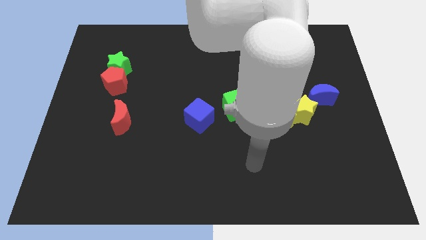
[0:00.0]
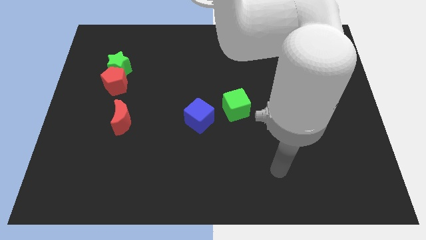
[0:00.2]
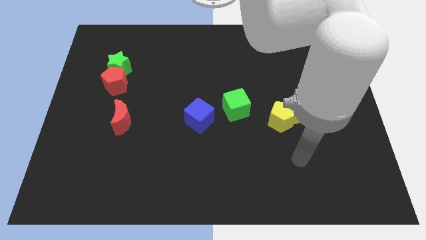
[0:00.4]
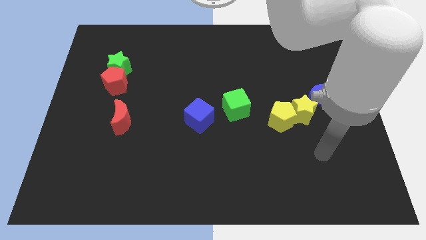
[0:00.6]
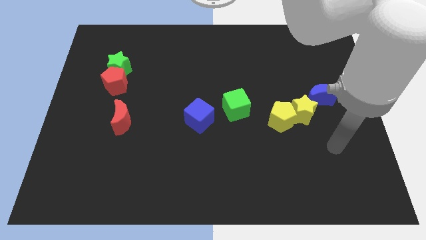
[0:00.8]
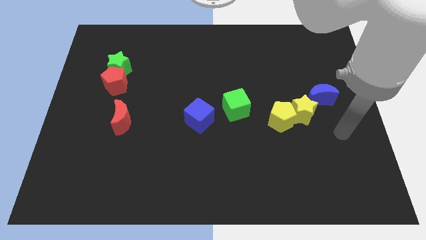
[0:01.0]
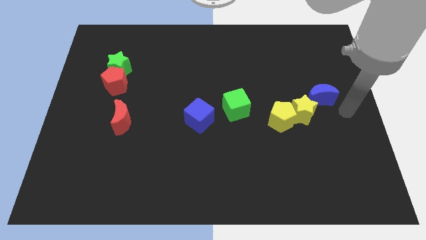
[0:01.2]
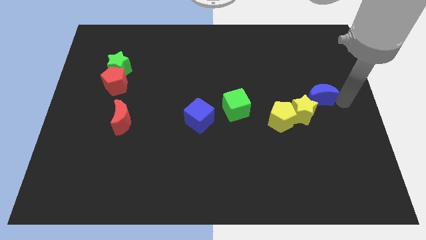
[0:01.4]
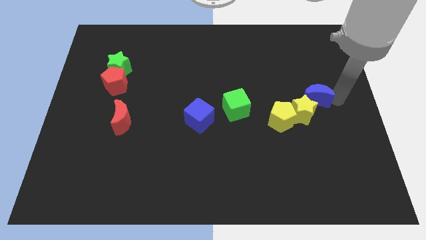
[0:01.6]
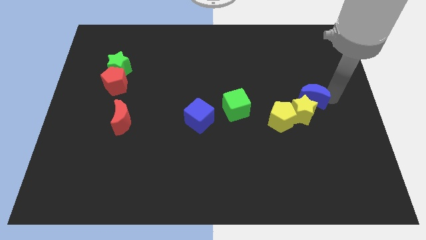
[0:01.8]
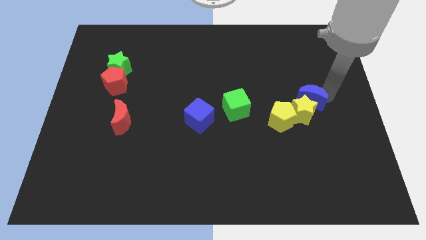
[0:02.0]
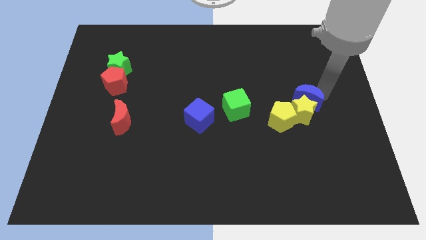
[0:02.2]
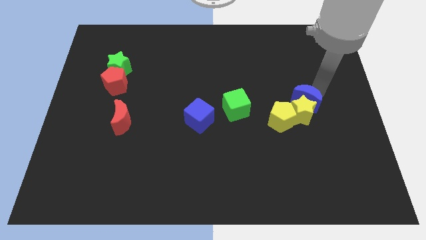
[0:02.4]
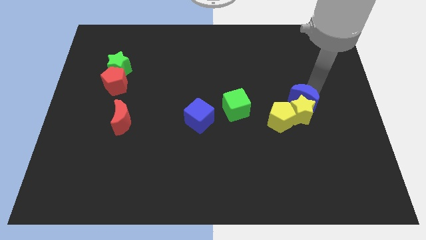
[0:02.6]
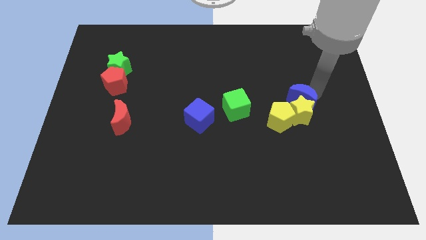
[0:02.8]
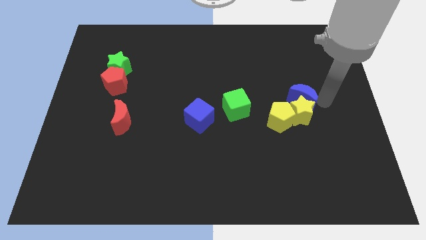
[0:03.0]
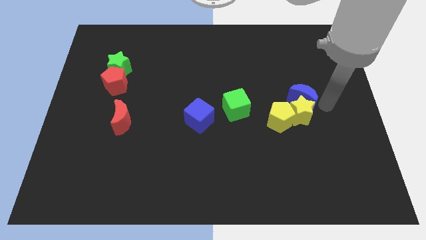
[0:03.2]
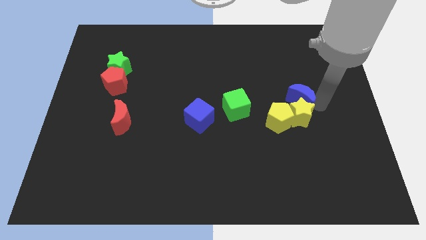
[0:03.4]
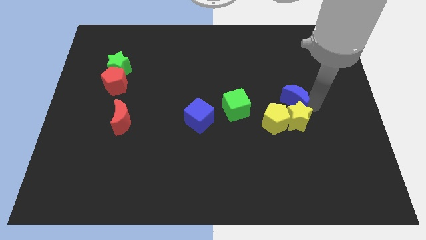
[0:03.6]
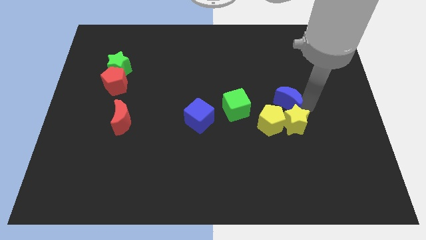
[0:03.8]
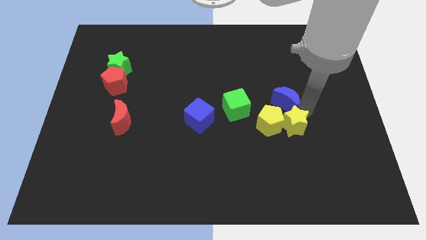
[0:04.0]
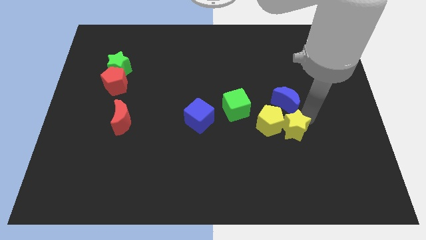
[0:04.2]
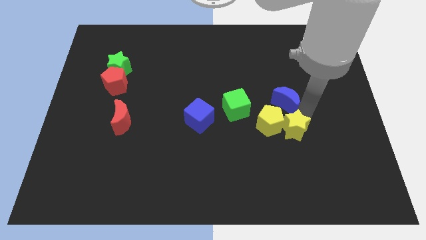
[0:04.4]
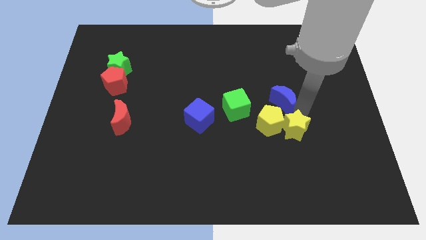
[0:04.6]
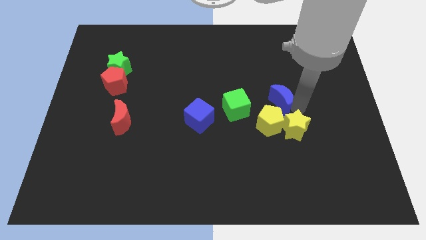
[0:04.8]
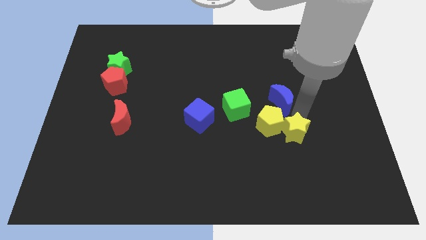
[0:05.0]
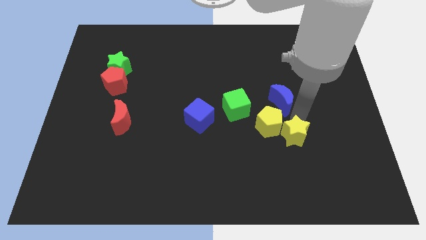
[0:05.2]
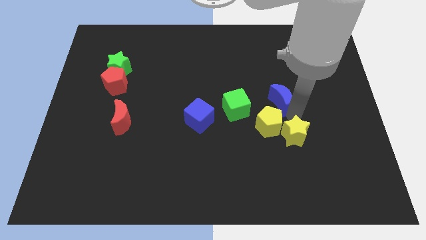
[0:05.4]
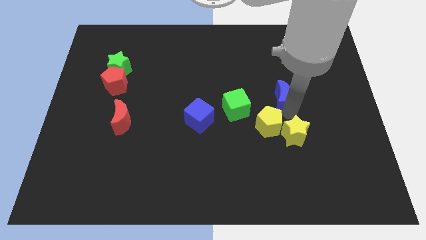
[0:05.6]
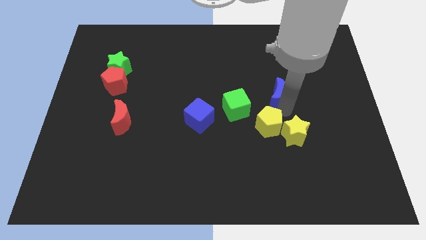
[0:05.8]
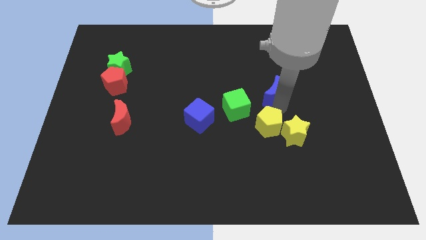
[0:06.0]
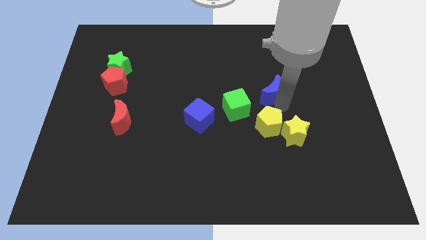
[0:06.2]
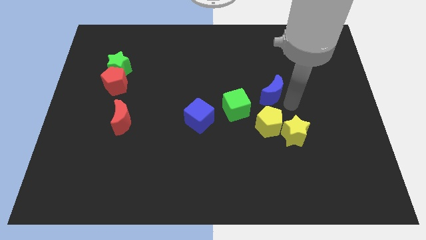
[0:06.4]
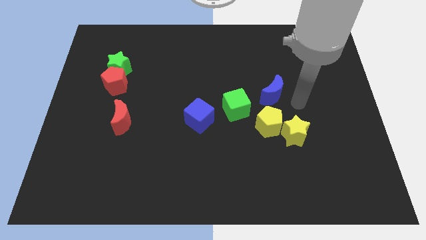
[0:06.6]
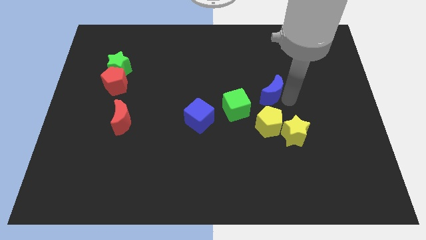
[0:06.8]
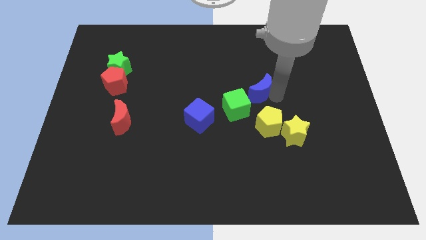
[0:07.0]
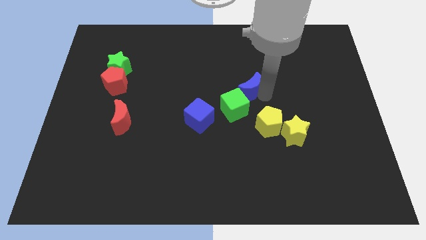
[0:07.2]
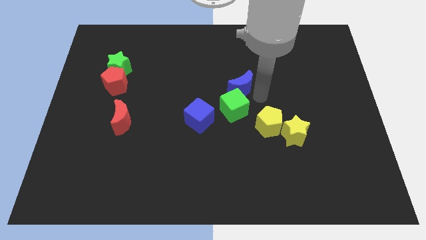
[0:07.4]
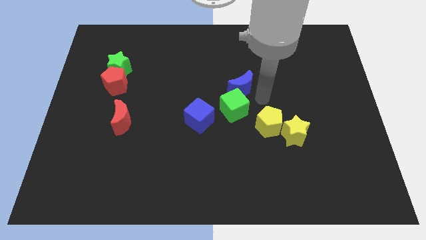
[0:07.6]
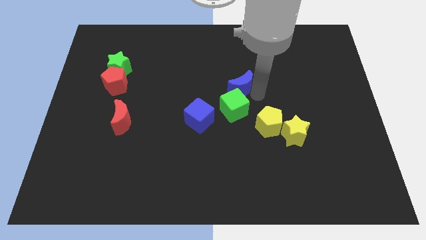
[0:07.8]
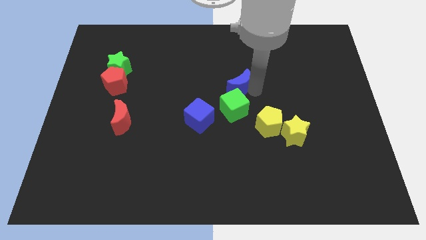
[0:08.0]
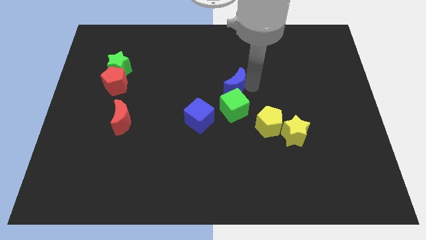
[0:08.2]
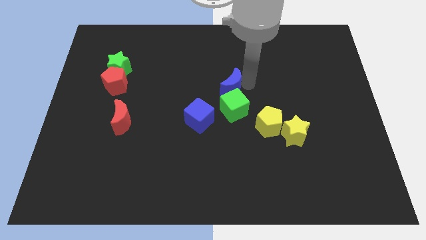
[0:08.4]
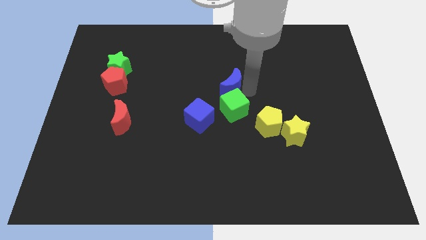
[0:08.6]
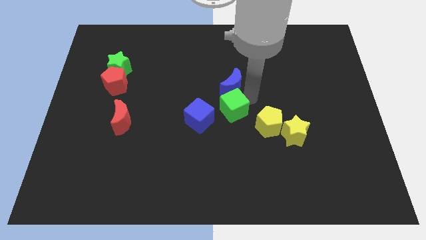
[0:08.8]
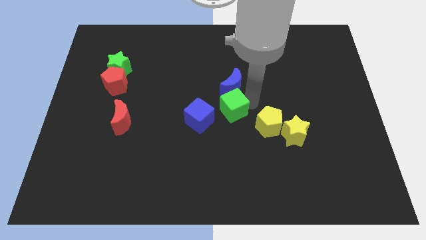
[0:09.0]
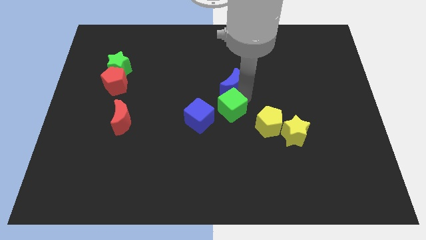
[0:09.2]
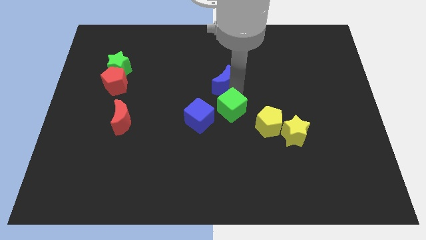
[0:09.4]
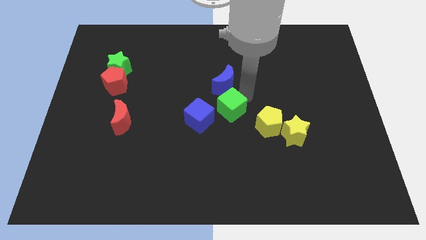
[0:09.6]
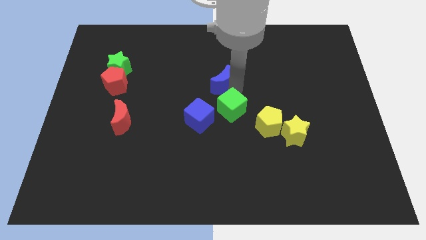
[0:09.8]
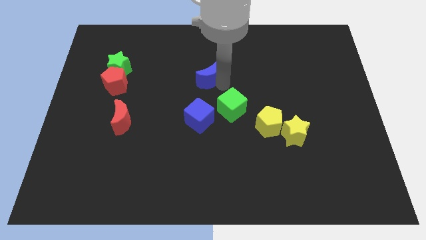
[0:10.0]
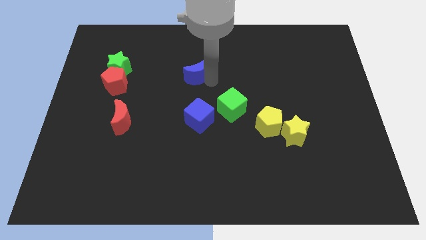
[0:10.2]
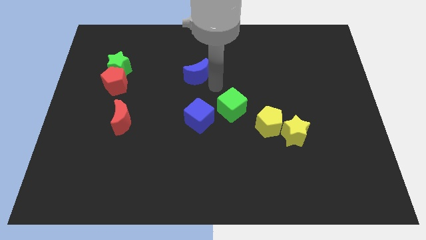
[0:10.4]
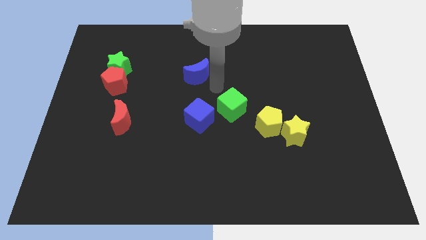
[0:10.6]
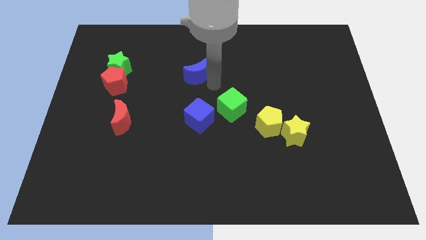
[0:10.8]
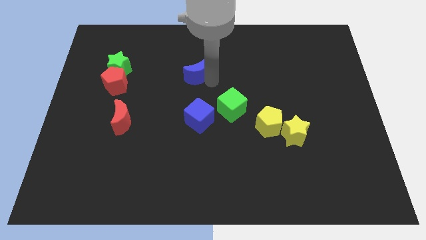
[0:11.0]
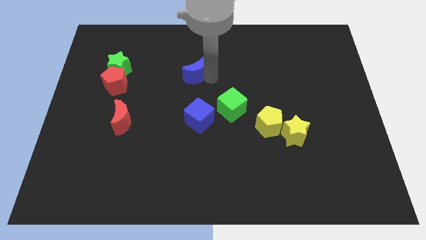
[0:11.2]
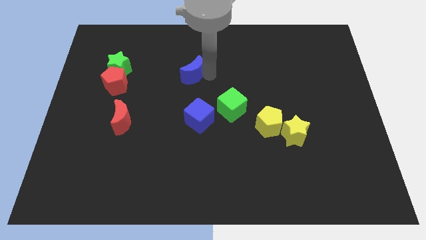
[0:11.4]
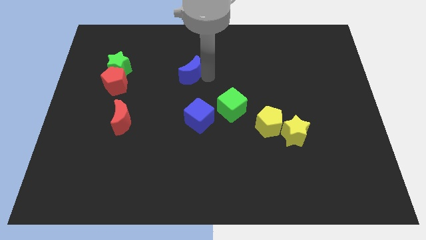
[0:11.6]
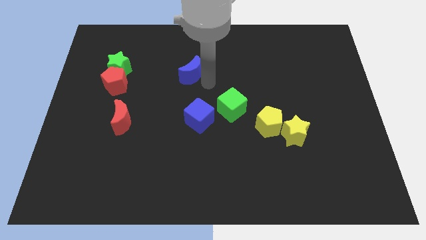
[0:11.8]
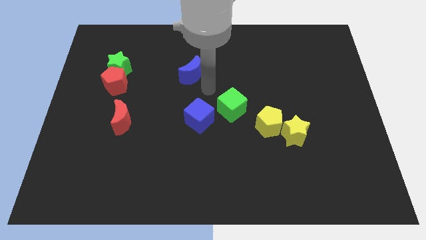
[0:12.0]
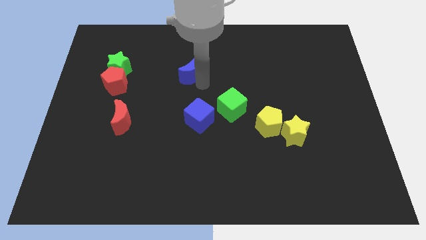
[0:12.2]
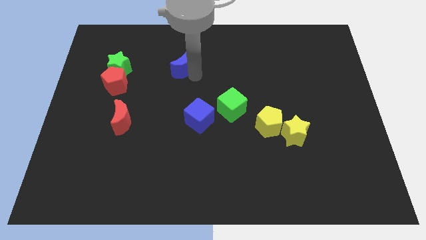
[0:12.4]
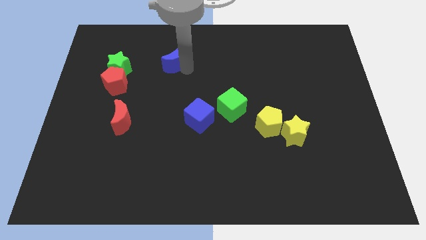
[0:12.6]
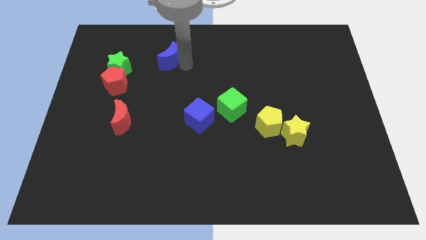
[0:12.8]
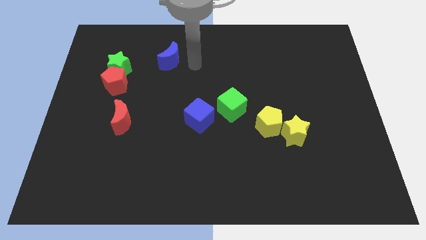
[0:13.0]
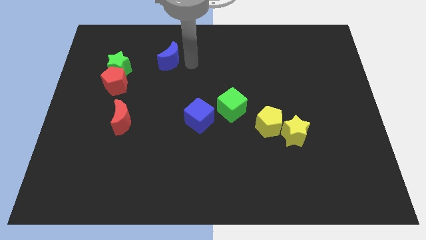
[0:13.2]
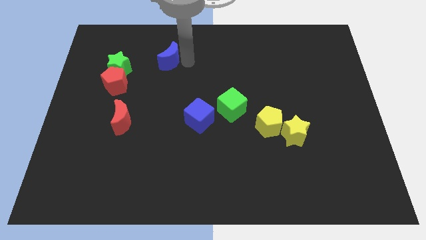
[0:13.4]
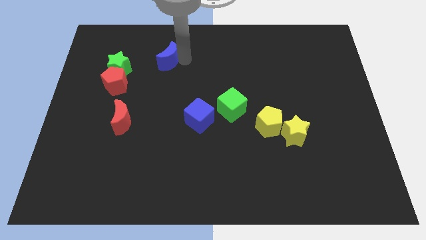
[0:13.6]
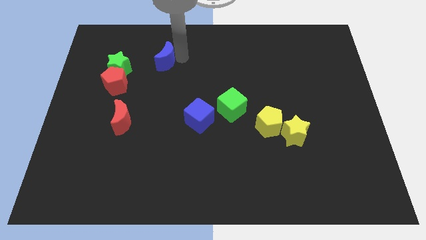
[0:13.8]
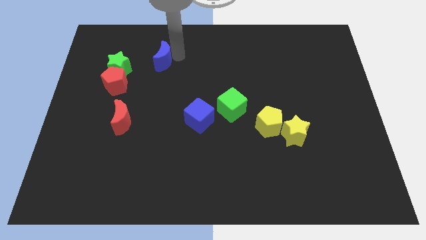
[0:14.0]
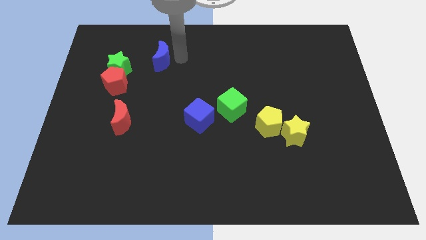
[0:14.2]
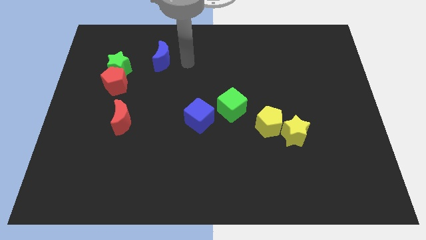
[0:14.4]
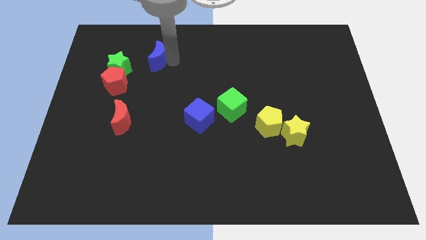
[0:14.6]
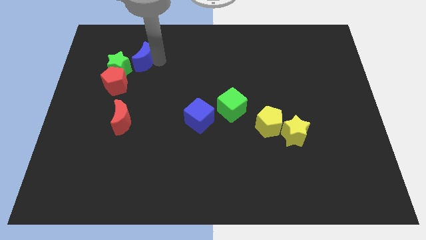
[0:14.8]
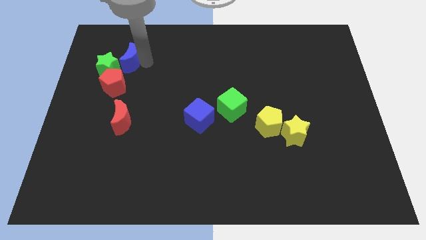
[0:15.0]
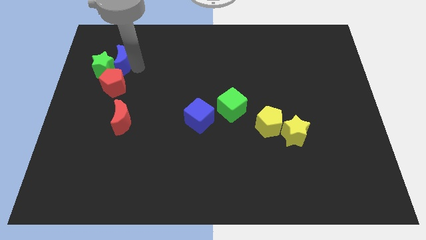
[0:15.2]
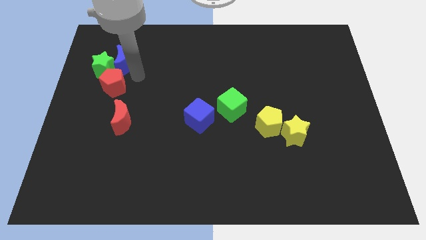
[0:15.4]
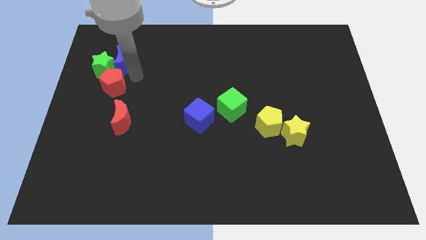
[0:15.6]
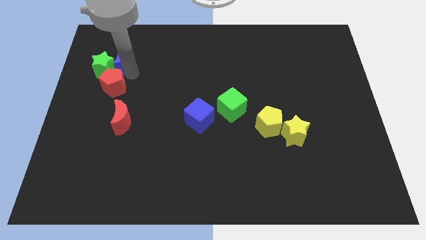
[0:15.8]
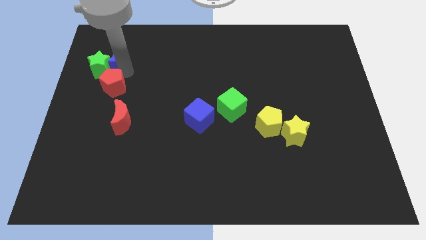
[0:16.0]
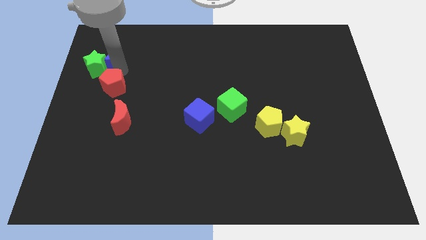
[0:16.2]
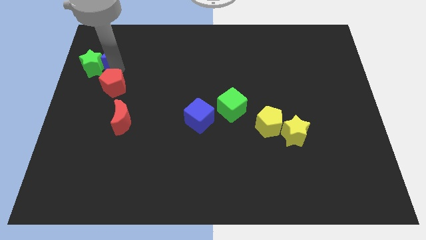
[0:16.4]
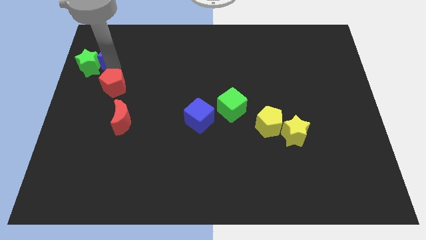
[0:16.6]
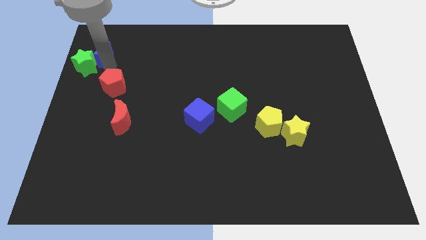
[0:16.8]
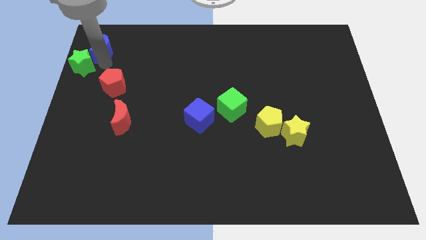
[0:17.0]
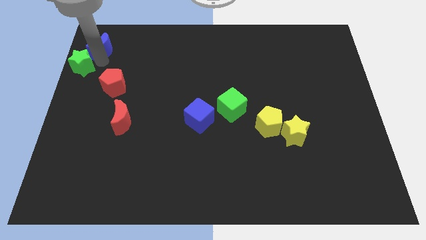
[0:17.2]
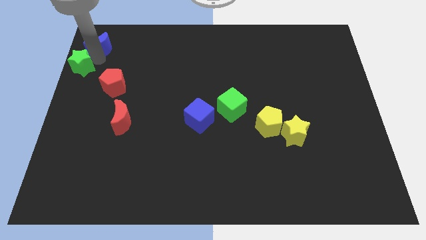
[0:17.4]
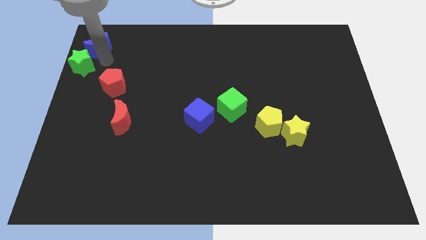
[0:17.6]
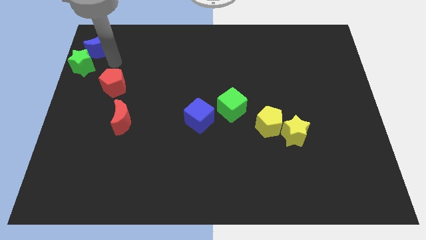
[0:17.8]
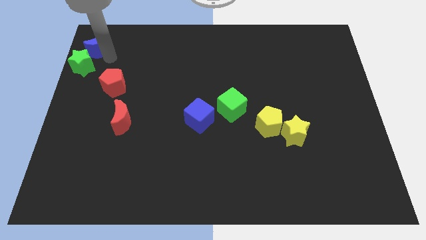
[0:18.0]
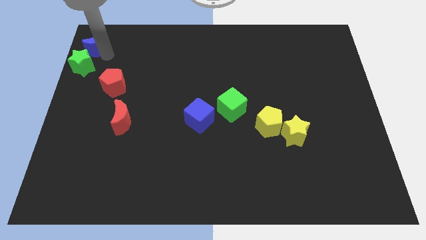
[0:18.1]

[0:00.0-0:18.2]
push the blue moon to the upper left corner
